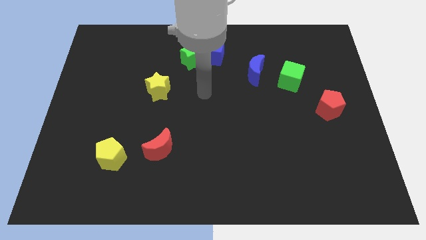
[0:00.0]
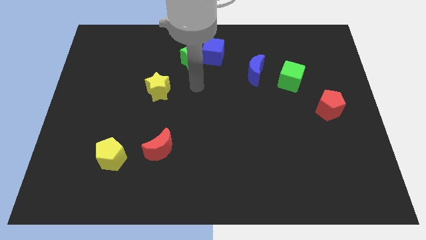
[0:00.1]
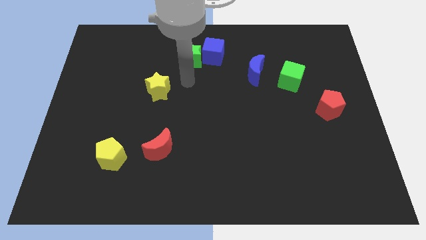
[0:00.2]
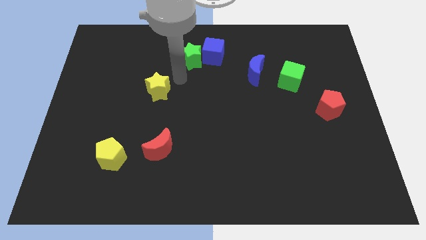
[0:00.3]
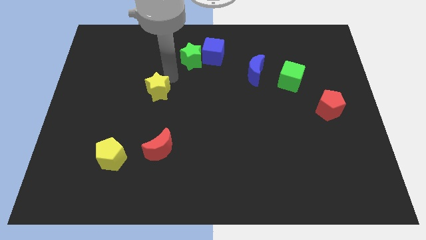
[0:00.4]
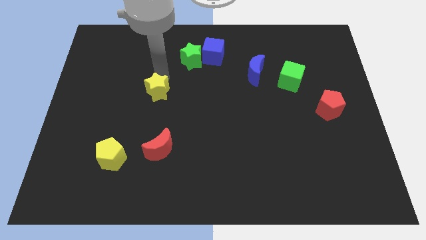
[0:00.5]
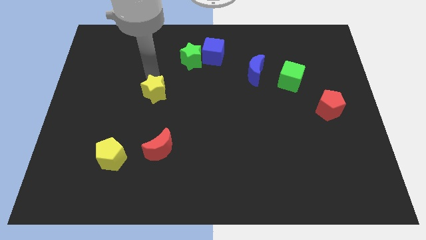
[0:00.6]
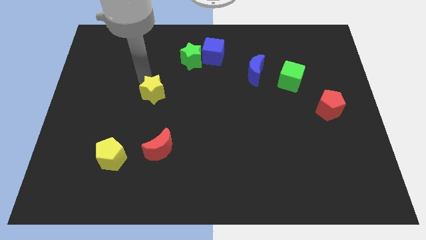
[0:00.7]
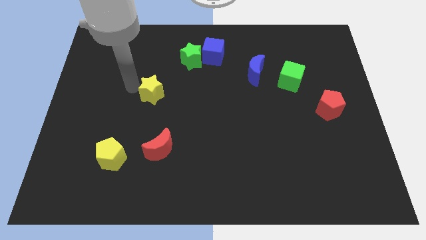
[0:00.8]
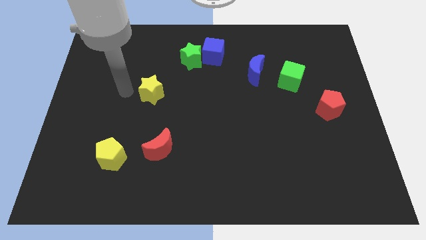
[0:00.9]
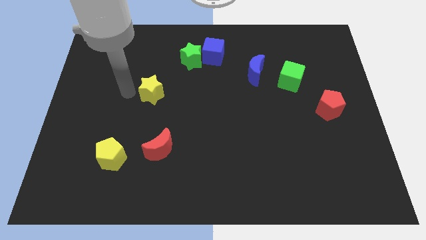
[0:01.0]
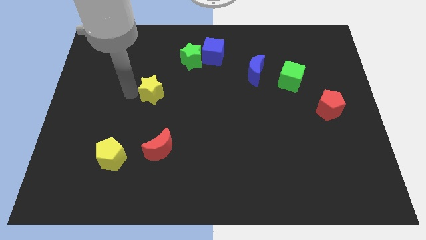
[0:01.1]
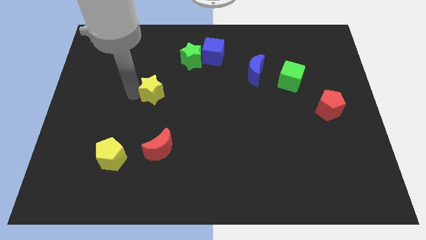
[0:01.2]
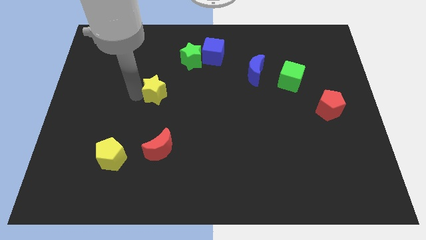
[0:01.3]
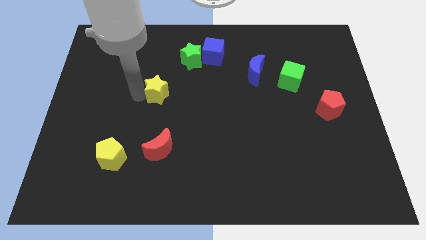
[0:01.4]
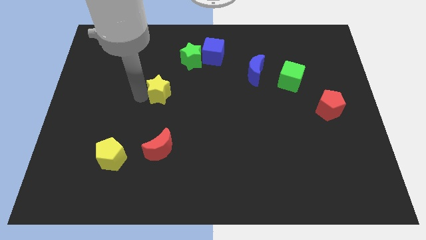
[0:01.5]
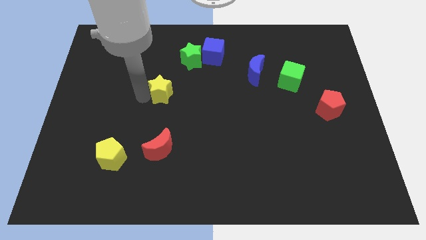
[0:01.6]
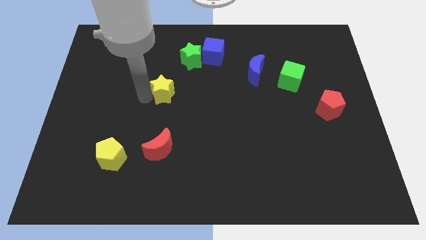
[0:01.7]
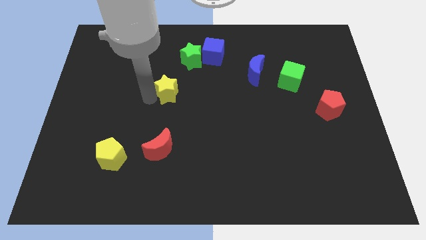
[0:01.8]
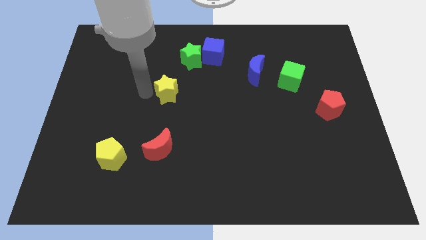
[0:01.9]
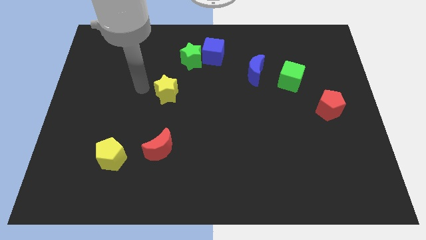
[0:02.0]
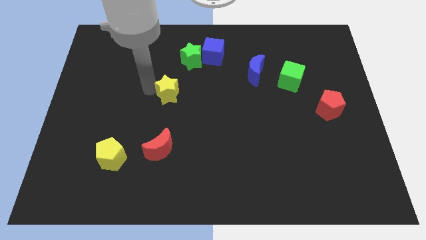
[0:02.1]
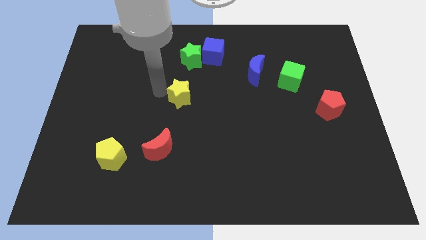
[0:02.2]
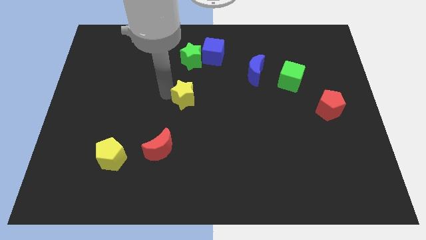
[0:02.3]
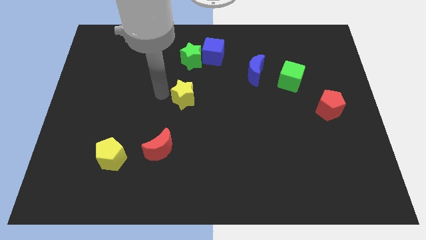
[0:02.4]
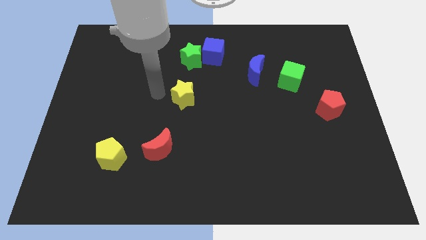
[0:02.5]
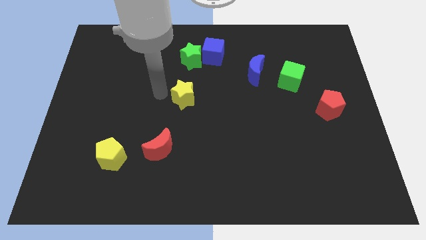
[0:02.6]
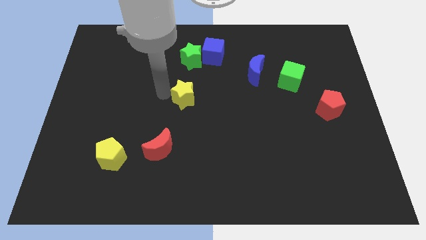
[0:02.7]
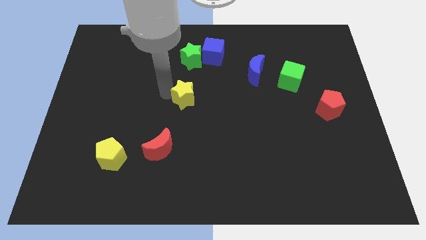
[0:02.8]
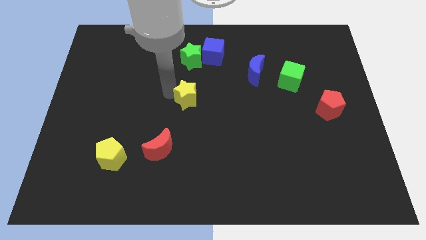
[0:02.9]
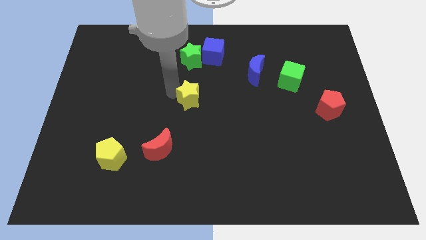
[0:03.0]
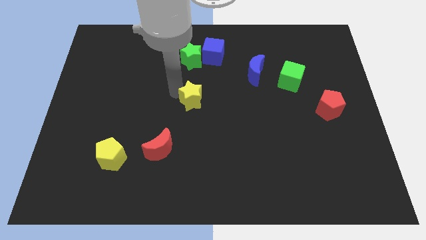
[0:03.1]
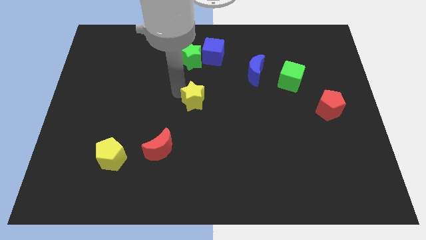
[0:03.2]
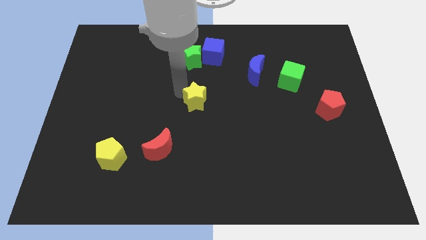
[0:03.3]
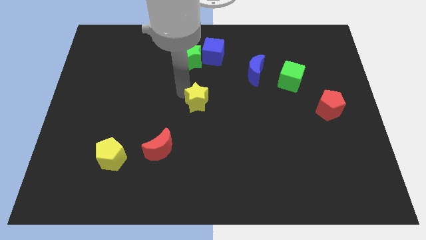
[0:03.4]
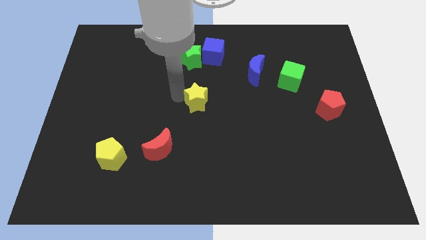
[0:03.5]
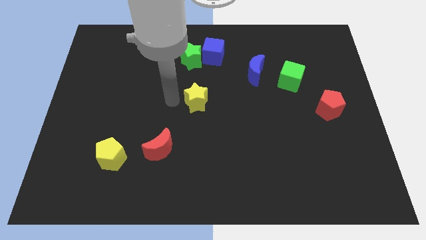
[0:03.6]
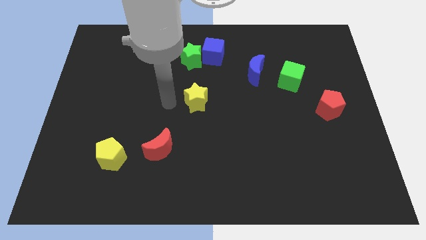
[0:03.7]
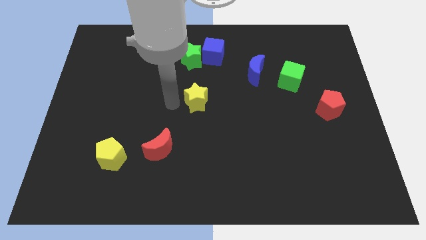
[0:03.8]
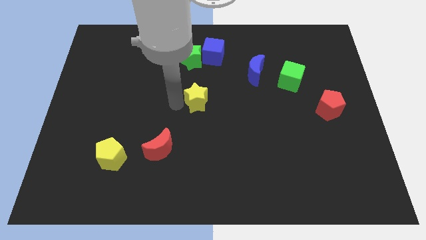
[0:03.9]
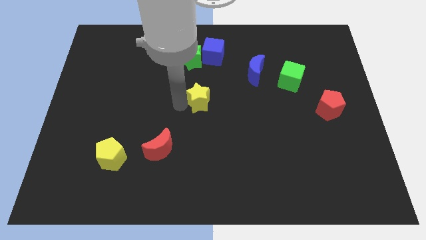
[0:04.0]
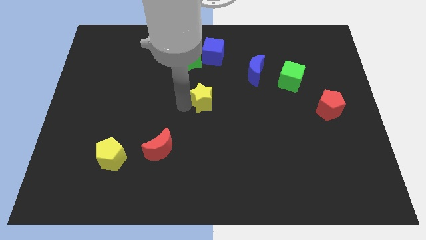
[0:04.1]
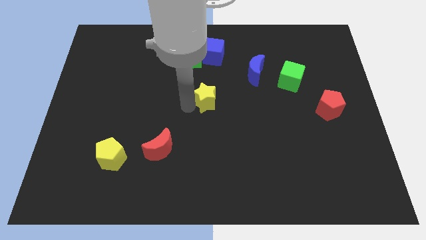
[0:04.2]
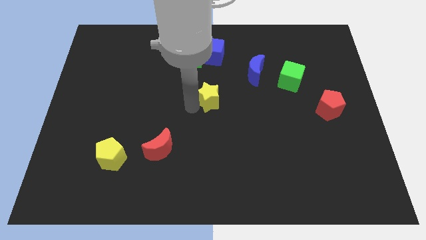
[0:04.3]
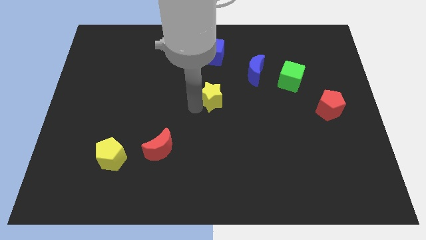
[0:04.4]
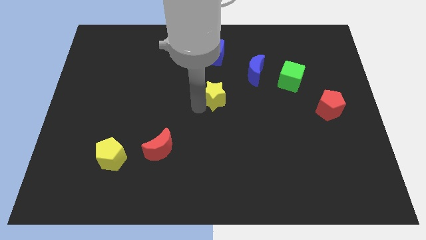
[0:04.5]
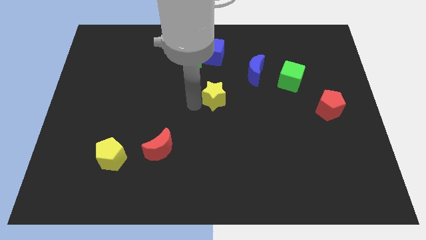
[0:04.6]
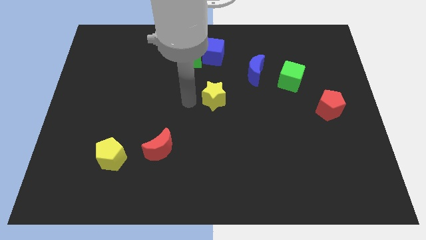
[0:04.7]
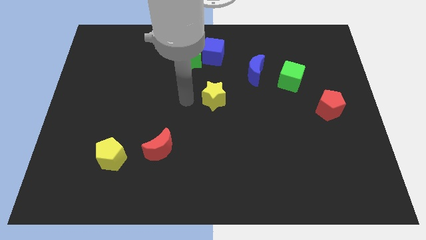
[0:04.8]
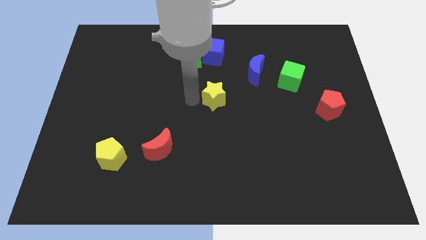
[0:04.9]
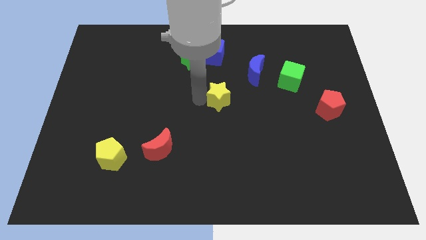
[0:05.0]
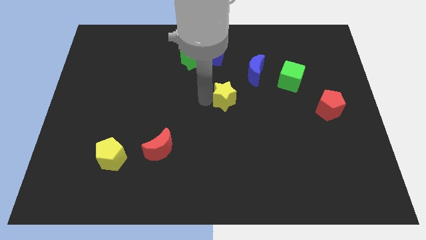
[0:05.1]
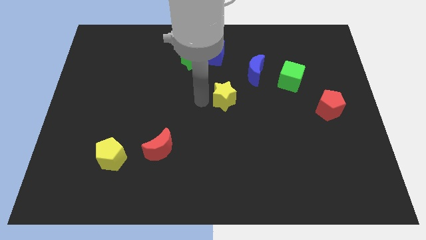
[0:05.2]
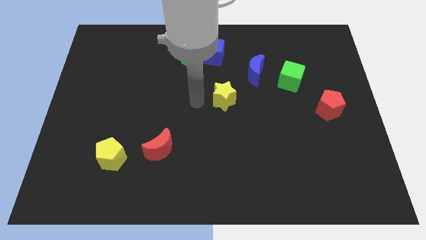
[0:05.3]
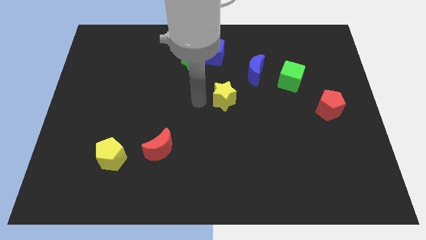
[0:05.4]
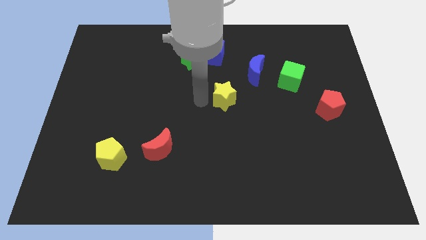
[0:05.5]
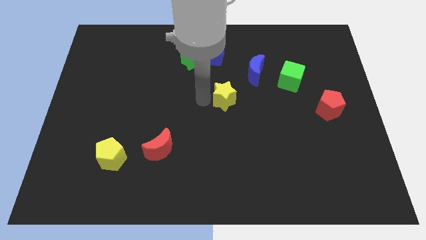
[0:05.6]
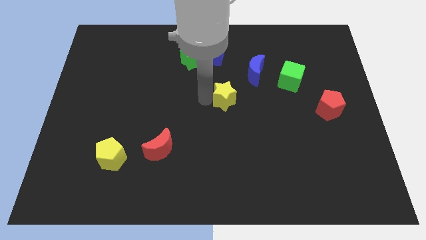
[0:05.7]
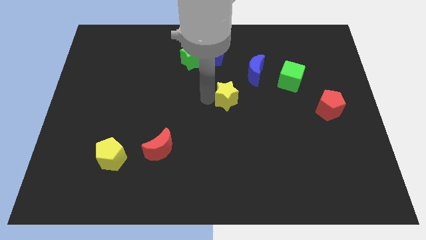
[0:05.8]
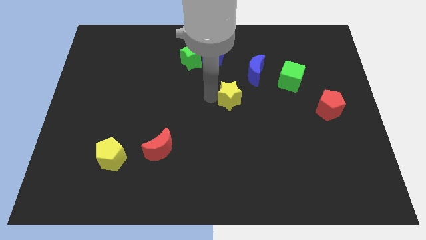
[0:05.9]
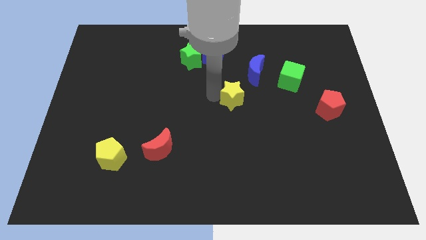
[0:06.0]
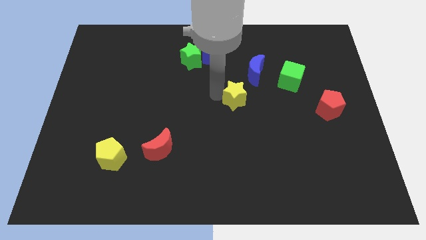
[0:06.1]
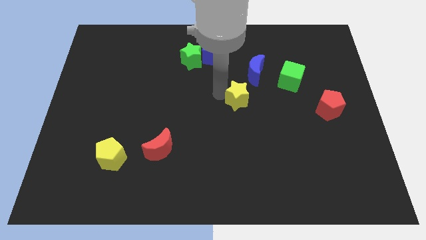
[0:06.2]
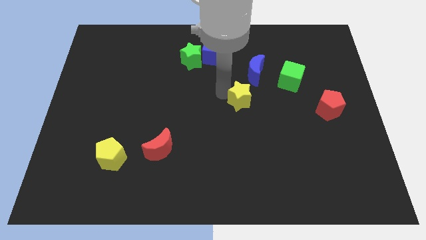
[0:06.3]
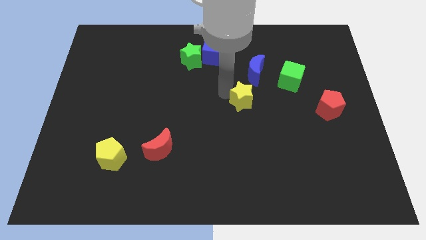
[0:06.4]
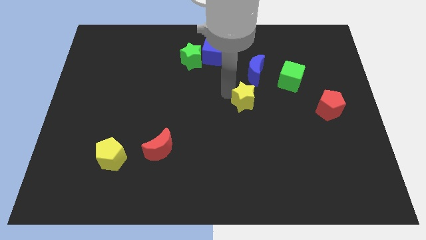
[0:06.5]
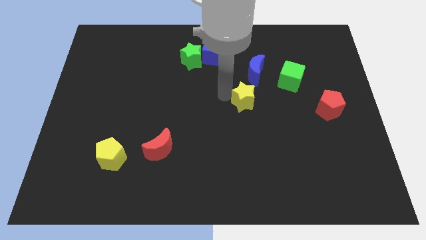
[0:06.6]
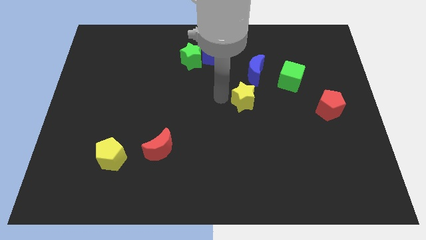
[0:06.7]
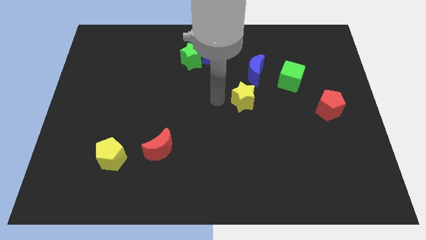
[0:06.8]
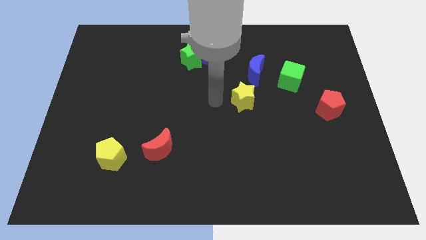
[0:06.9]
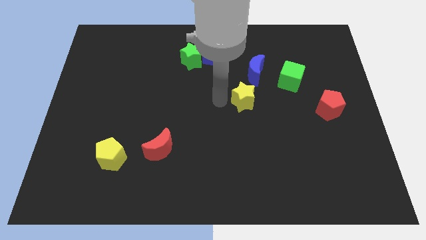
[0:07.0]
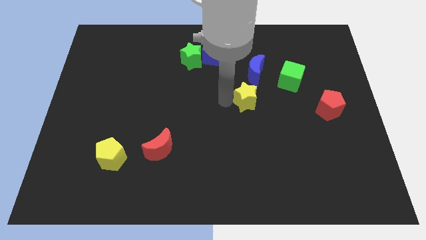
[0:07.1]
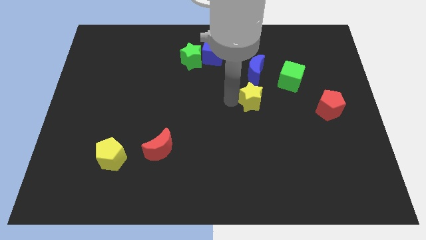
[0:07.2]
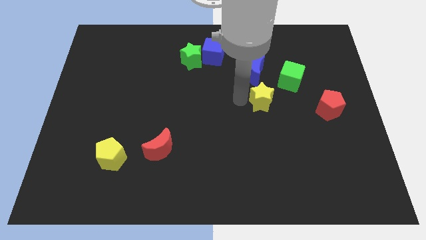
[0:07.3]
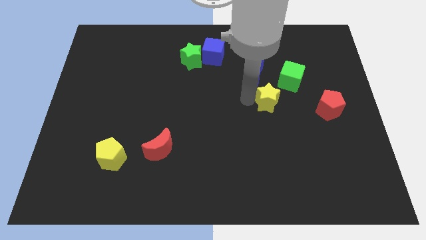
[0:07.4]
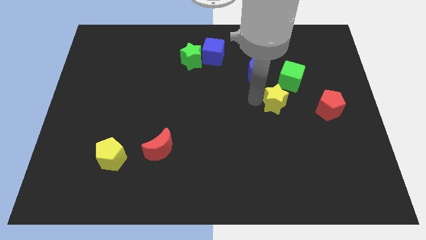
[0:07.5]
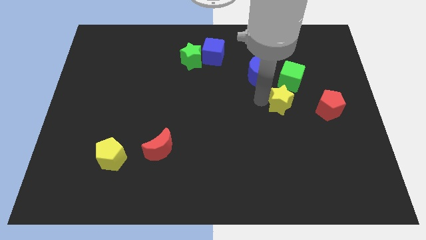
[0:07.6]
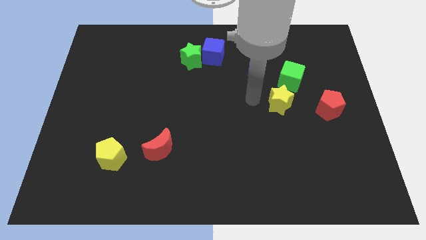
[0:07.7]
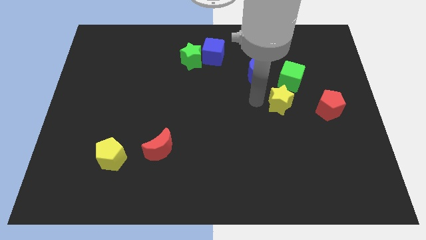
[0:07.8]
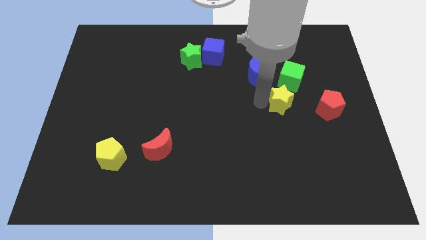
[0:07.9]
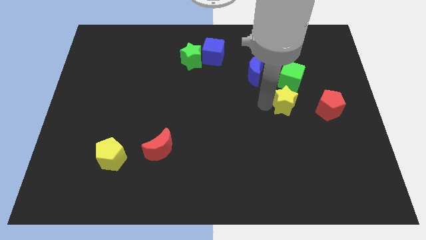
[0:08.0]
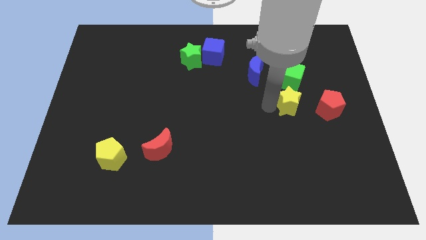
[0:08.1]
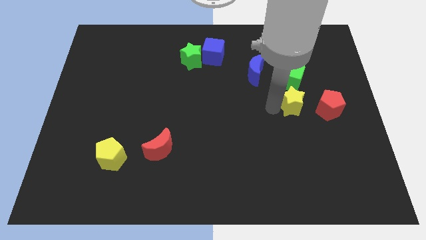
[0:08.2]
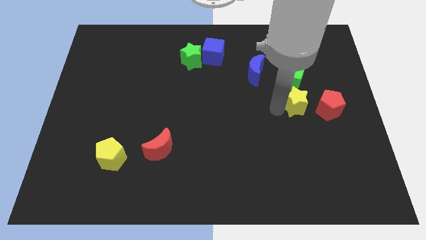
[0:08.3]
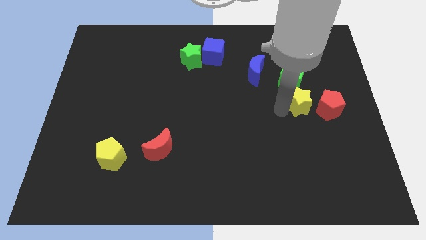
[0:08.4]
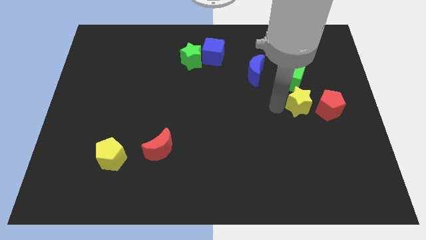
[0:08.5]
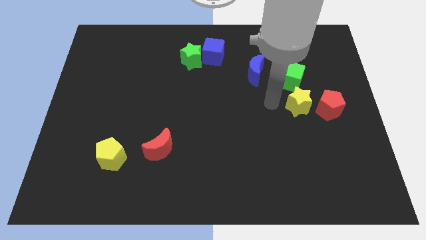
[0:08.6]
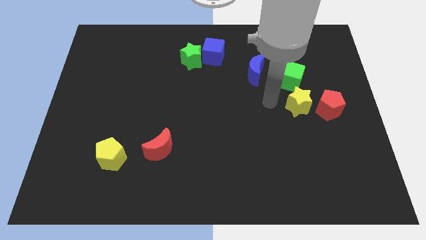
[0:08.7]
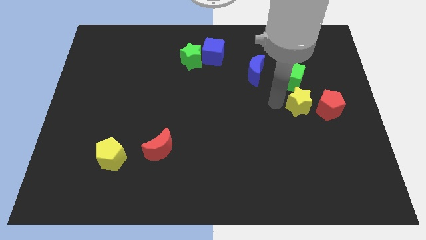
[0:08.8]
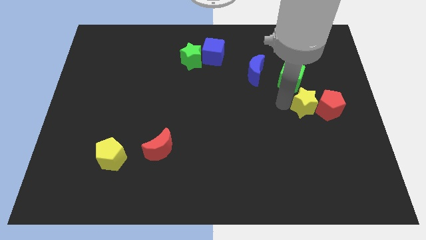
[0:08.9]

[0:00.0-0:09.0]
move the yellow star close to the red pentagon
